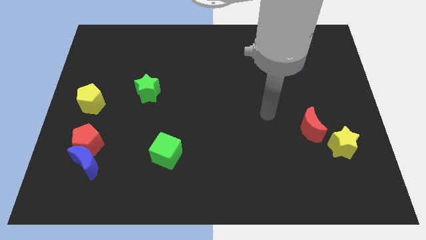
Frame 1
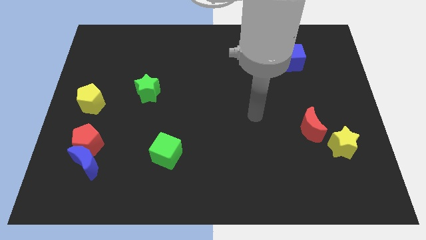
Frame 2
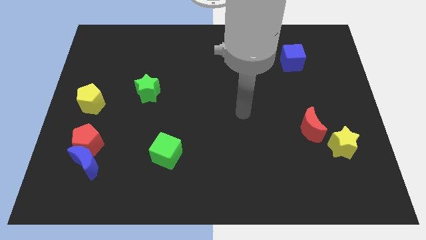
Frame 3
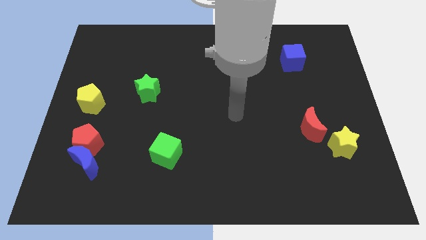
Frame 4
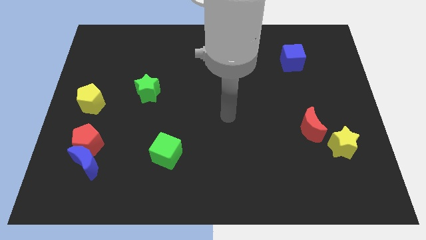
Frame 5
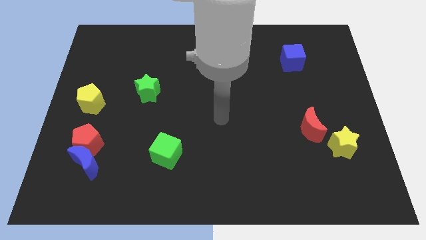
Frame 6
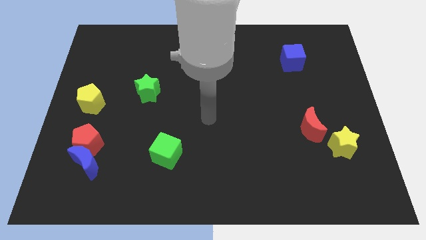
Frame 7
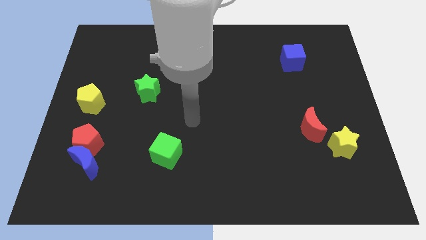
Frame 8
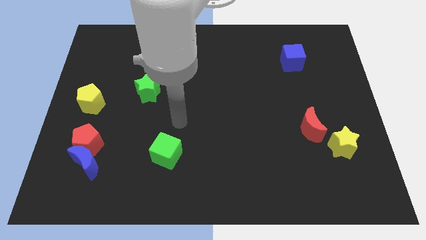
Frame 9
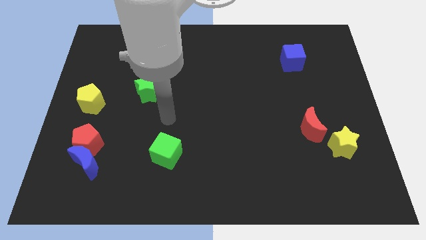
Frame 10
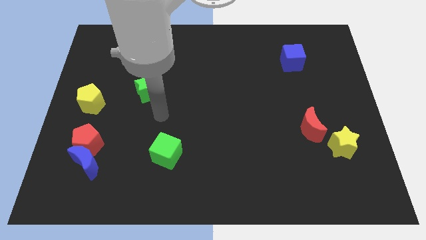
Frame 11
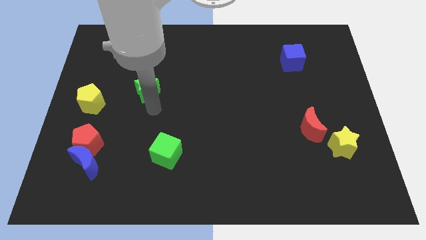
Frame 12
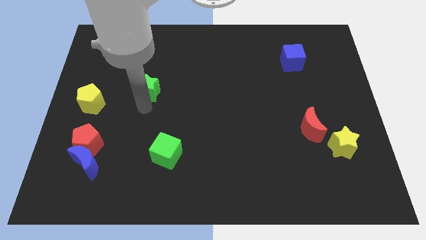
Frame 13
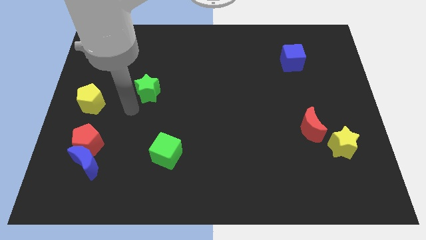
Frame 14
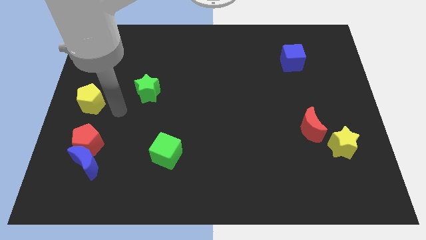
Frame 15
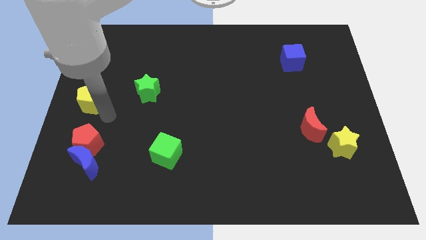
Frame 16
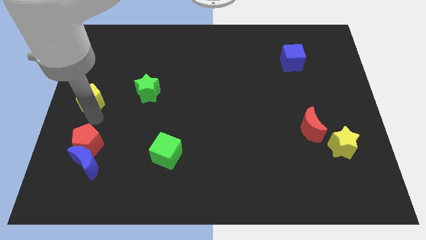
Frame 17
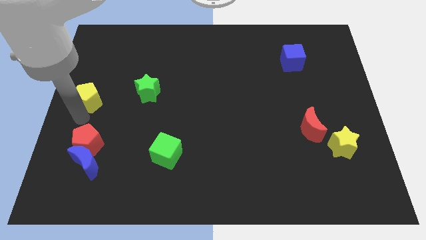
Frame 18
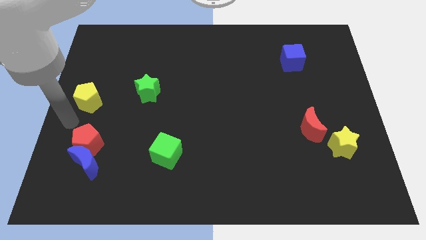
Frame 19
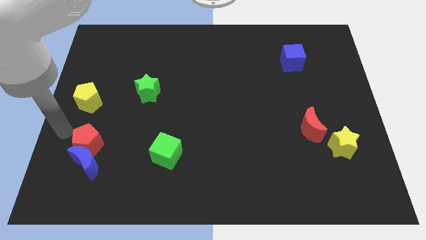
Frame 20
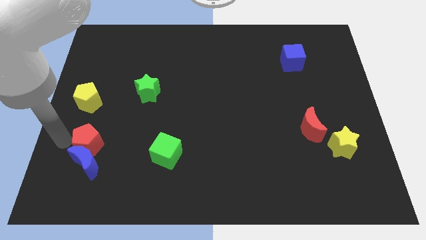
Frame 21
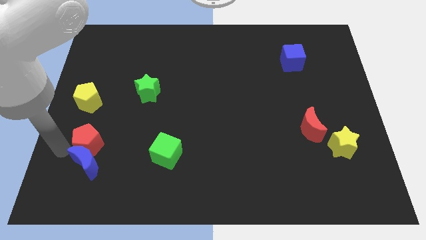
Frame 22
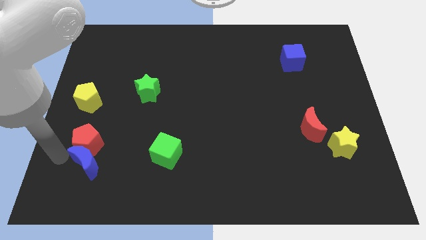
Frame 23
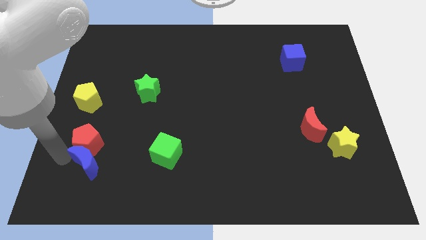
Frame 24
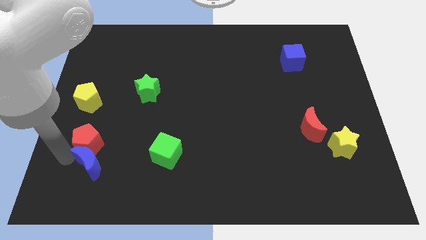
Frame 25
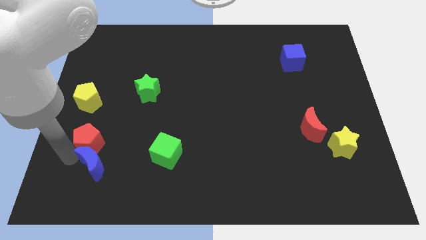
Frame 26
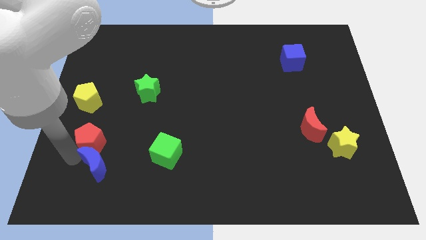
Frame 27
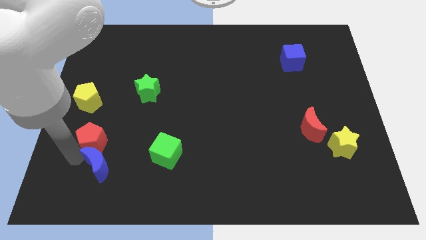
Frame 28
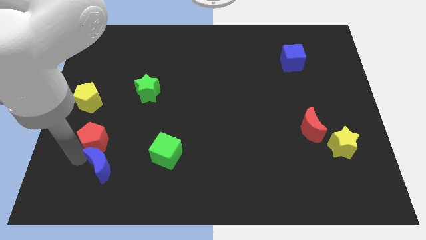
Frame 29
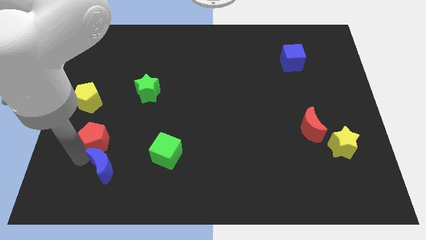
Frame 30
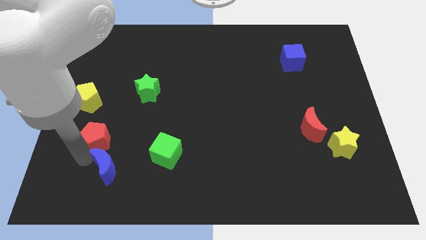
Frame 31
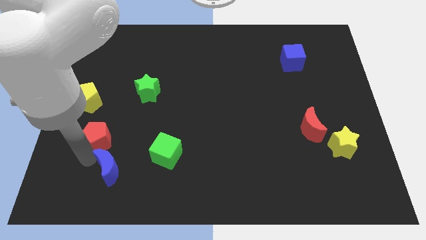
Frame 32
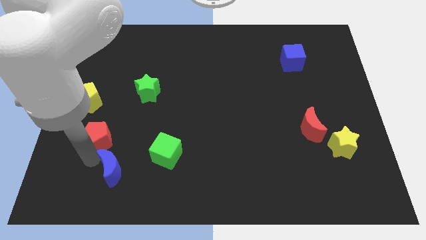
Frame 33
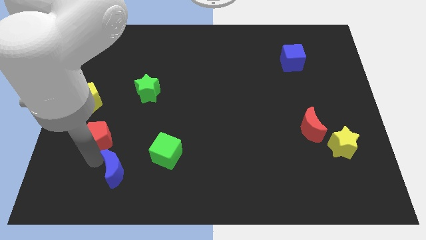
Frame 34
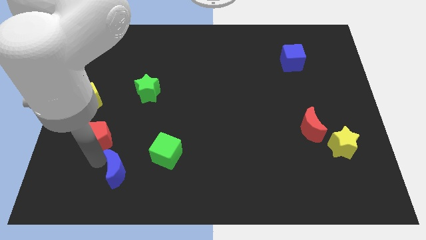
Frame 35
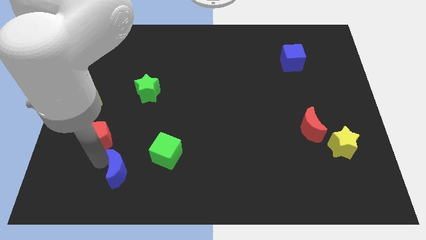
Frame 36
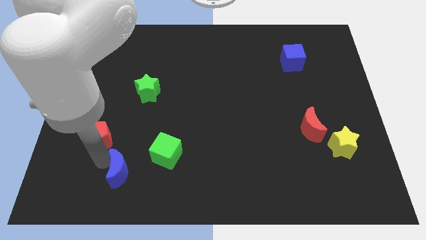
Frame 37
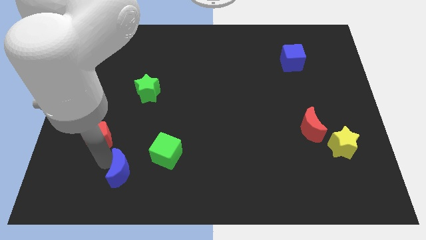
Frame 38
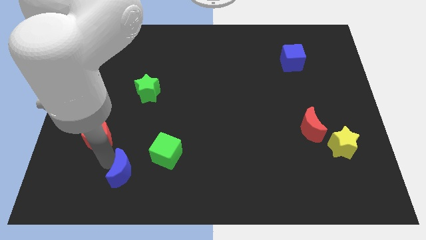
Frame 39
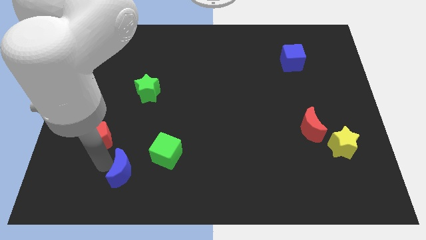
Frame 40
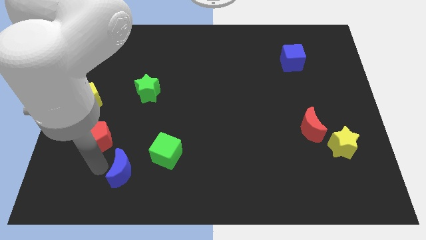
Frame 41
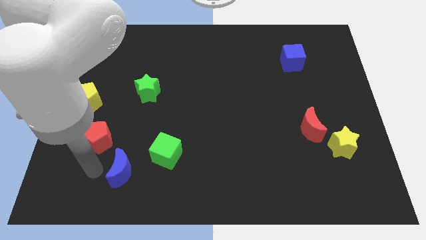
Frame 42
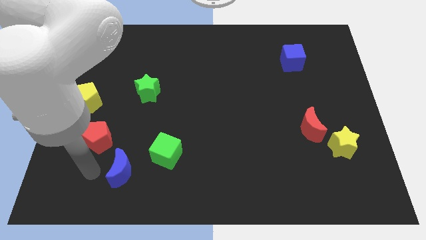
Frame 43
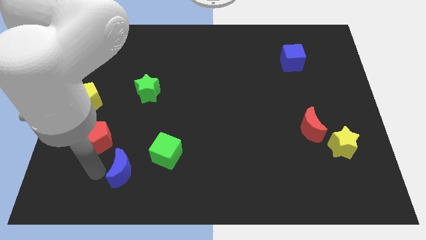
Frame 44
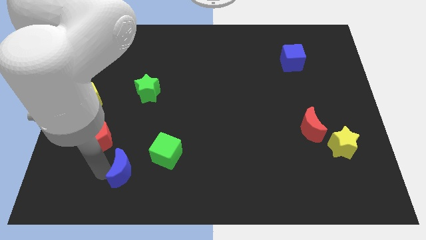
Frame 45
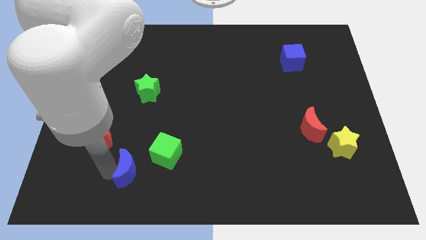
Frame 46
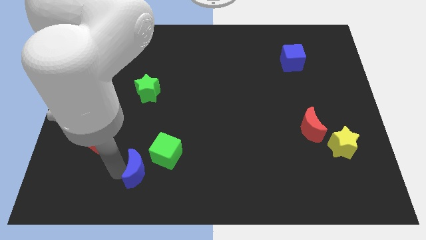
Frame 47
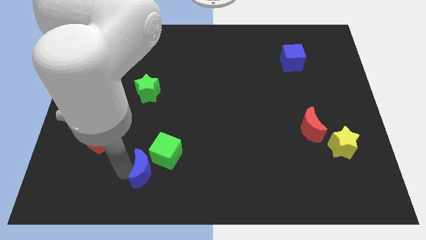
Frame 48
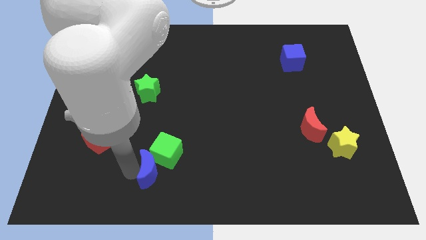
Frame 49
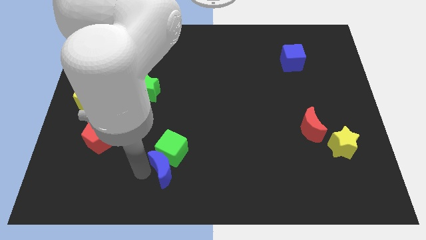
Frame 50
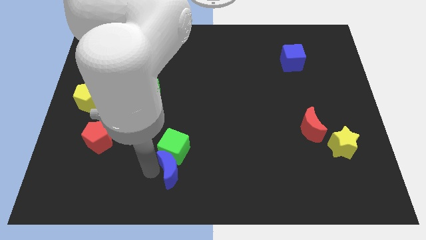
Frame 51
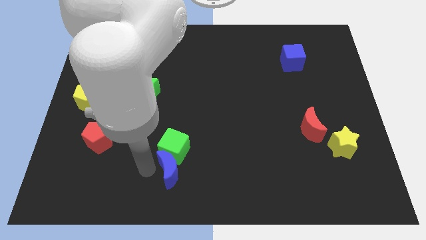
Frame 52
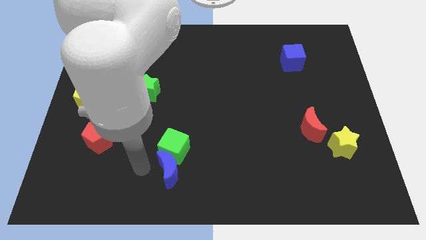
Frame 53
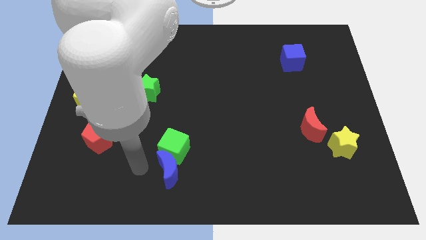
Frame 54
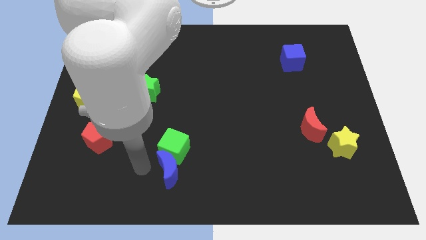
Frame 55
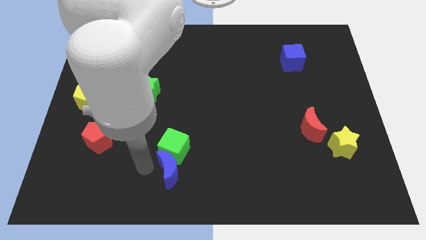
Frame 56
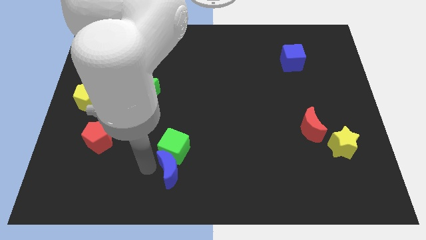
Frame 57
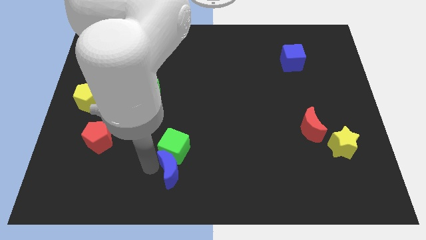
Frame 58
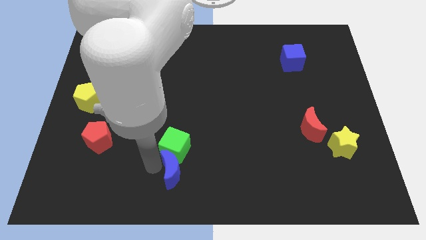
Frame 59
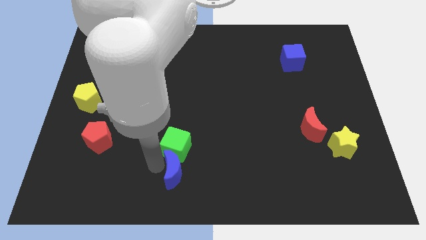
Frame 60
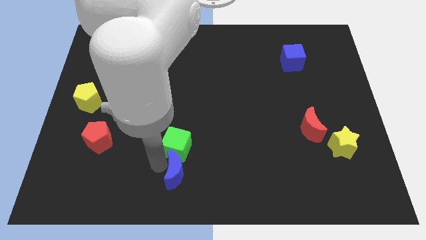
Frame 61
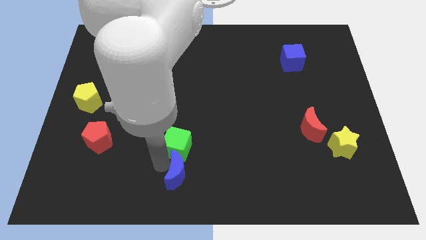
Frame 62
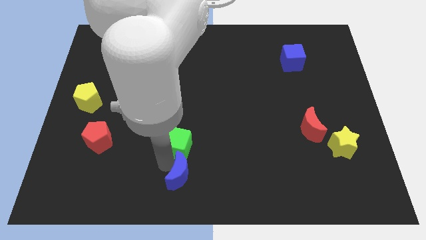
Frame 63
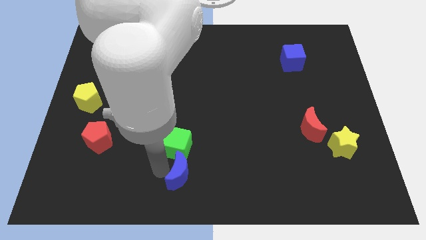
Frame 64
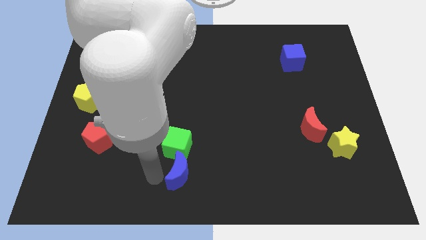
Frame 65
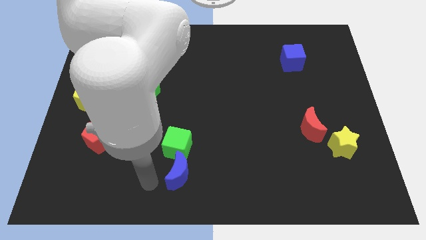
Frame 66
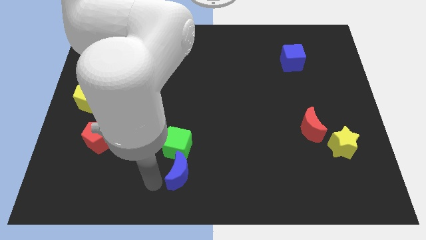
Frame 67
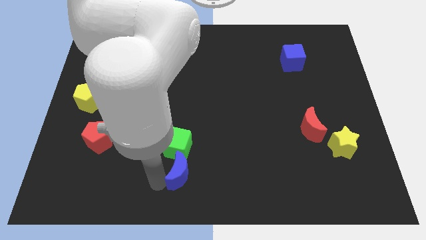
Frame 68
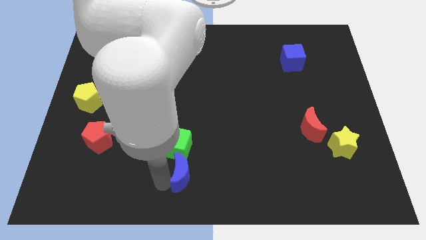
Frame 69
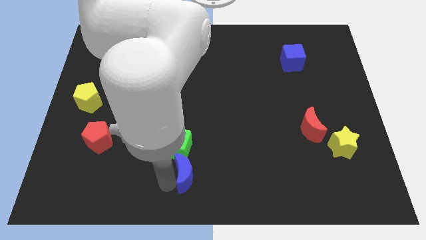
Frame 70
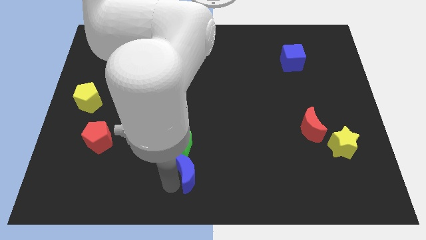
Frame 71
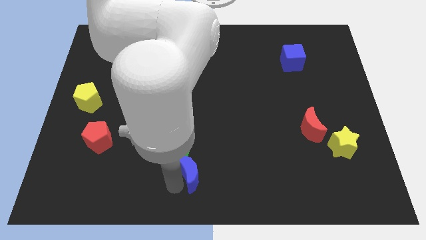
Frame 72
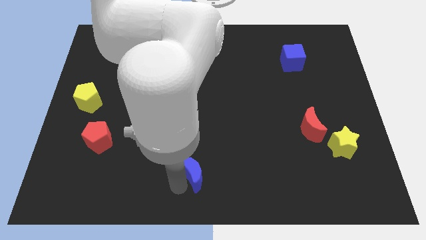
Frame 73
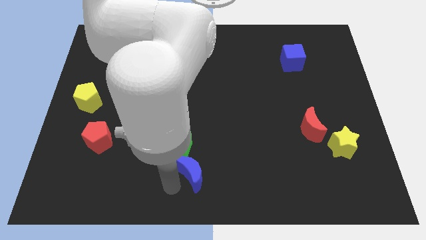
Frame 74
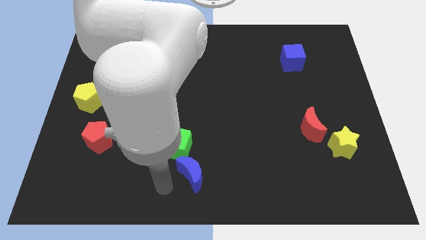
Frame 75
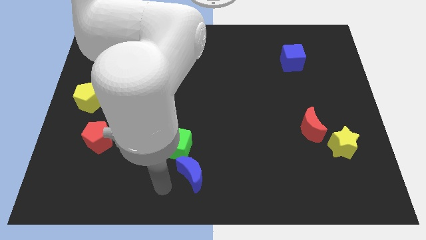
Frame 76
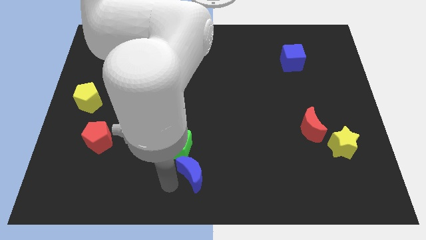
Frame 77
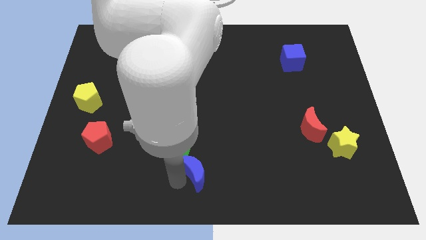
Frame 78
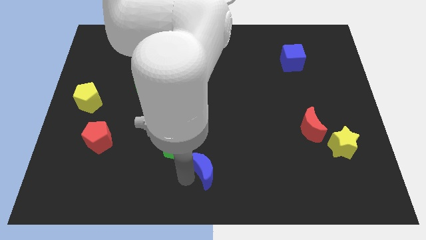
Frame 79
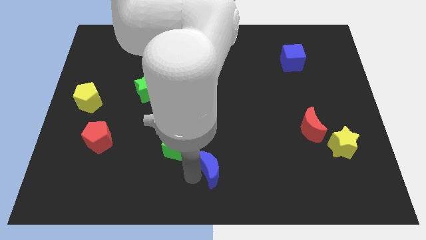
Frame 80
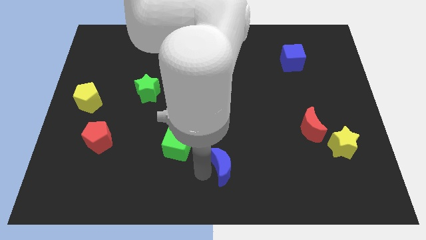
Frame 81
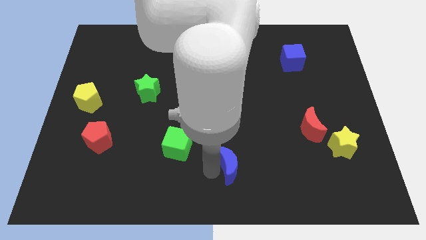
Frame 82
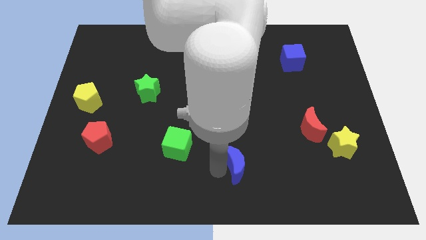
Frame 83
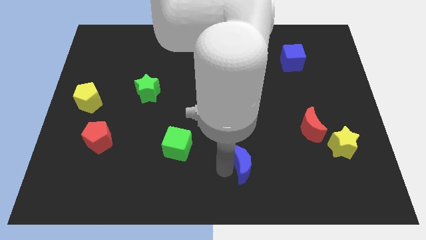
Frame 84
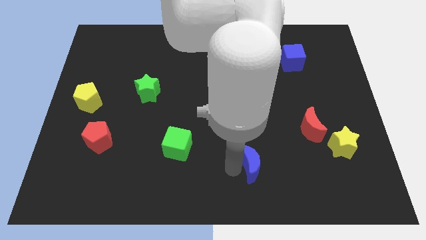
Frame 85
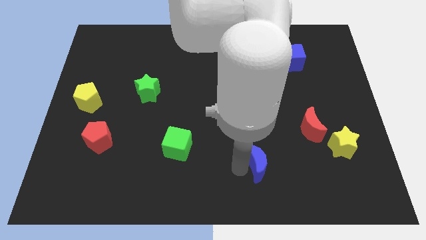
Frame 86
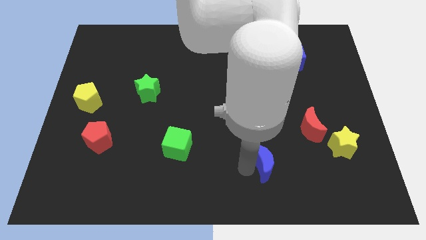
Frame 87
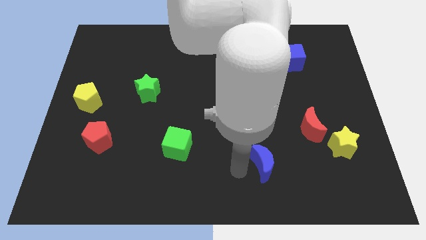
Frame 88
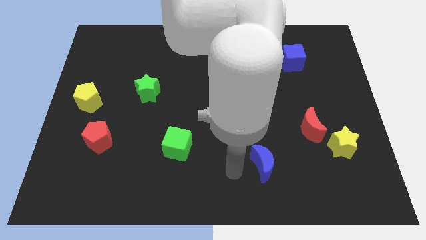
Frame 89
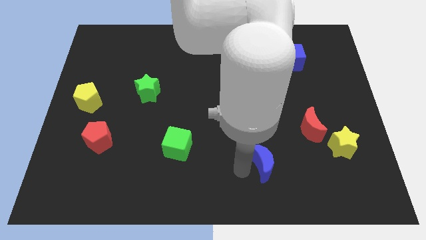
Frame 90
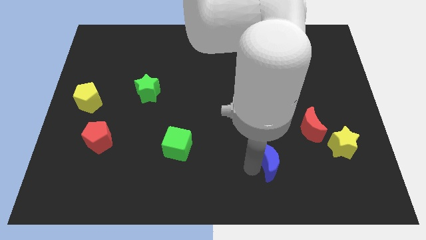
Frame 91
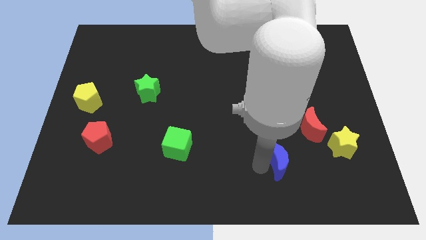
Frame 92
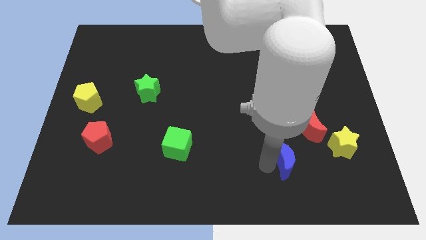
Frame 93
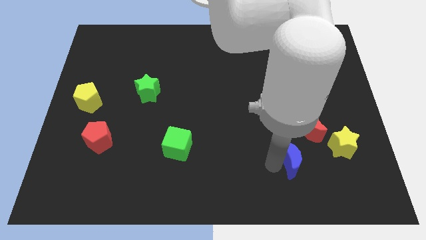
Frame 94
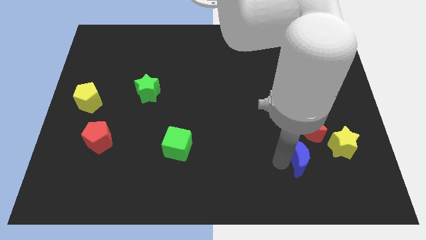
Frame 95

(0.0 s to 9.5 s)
put the blue moon to the bottom left side of the yellow star
